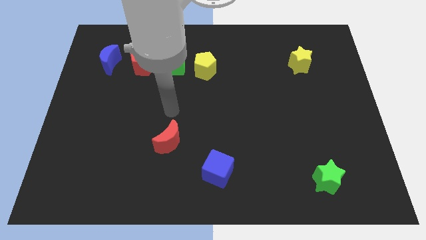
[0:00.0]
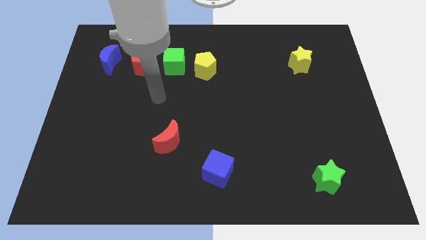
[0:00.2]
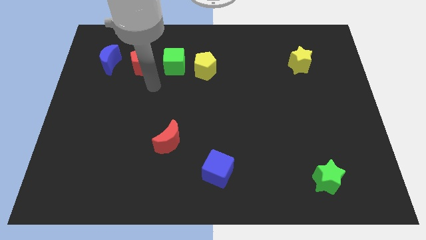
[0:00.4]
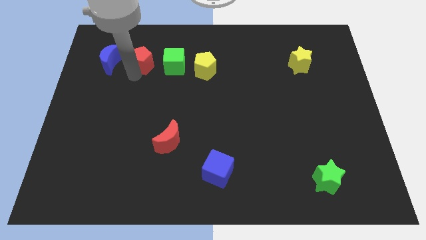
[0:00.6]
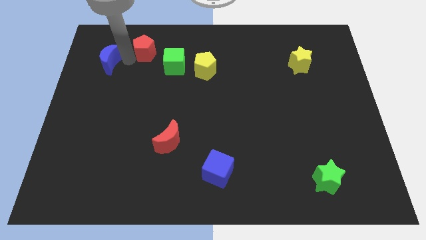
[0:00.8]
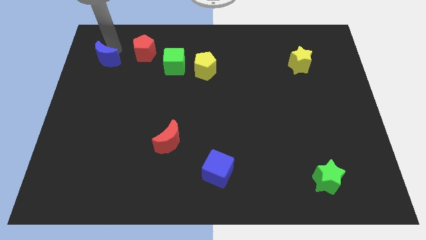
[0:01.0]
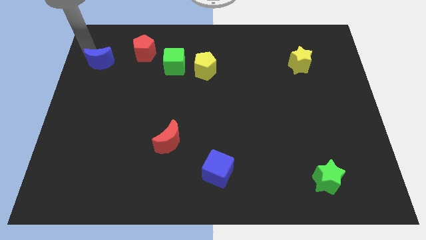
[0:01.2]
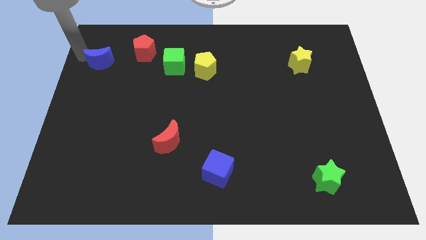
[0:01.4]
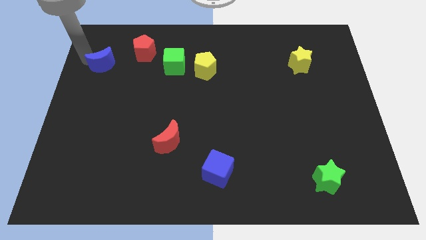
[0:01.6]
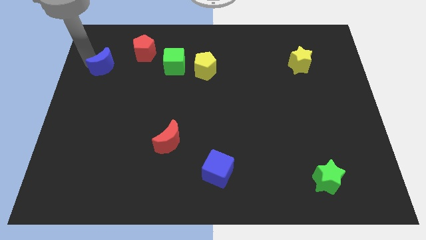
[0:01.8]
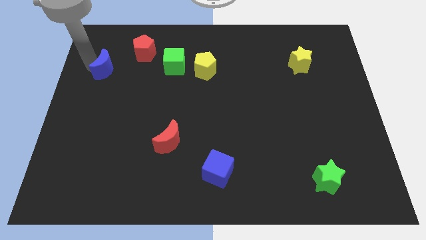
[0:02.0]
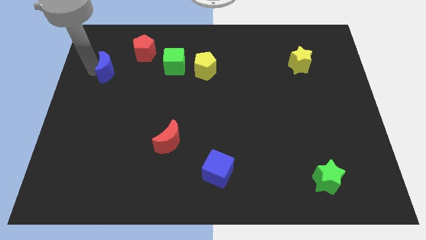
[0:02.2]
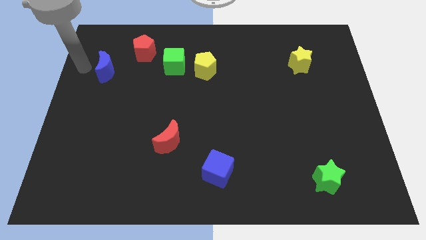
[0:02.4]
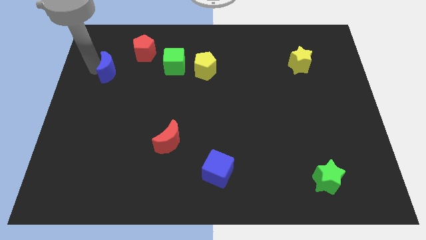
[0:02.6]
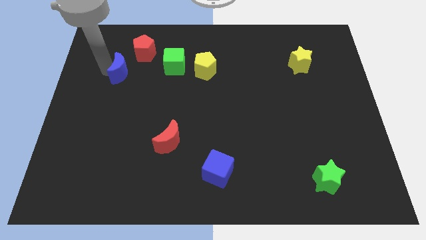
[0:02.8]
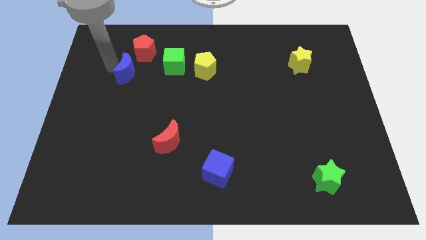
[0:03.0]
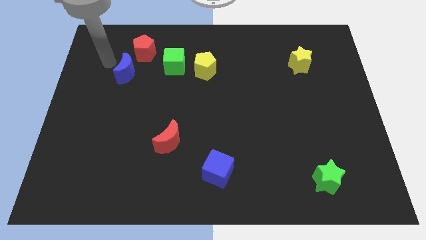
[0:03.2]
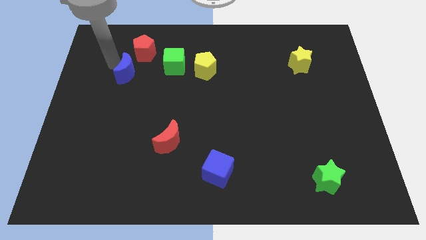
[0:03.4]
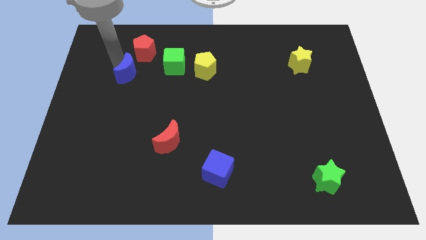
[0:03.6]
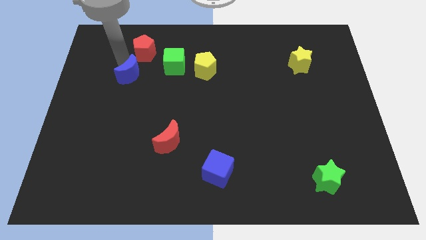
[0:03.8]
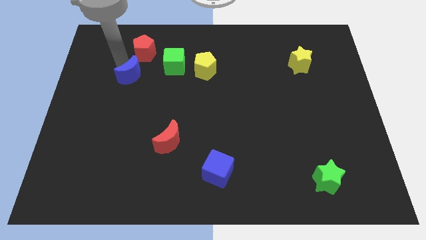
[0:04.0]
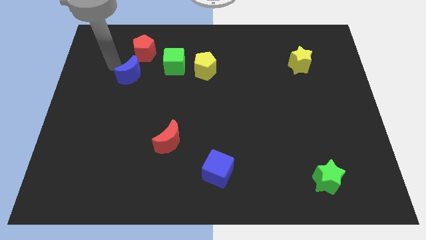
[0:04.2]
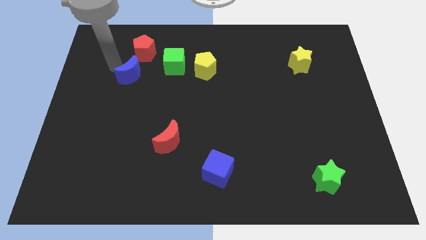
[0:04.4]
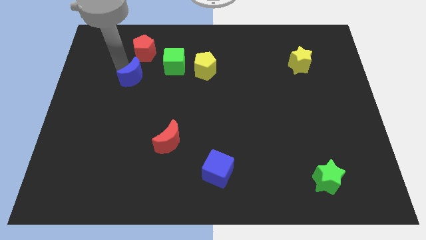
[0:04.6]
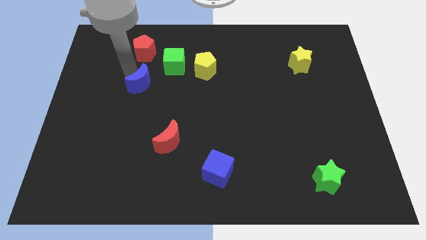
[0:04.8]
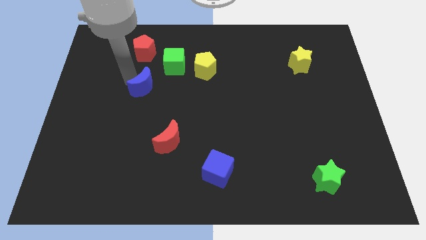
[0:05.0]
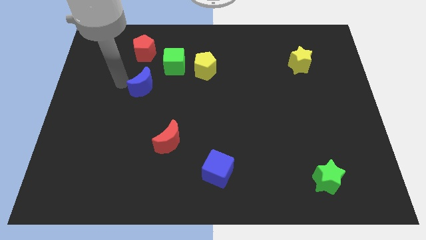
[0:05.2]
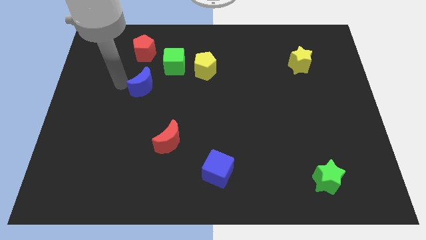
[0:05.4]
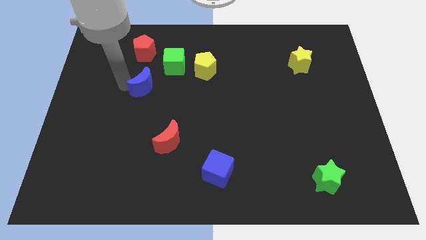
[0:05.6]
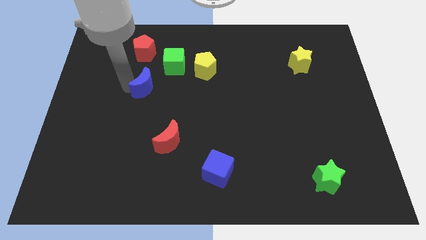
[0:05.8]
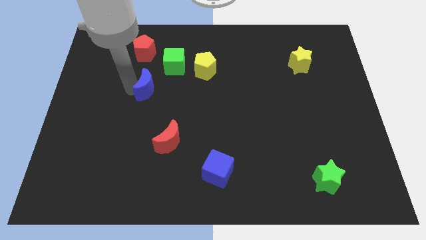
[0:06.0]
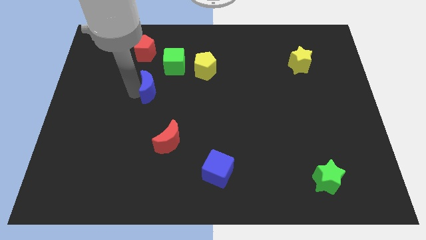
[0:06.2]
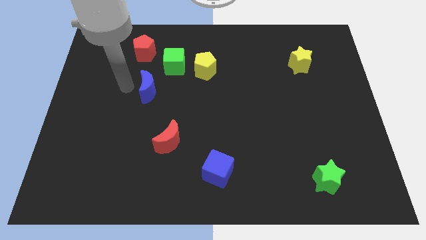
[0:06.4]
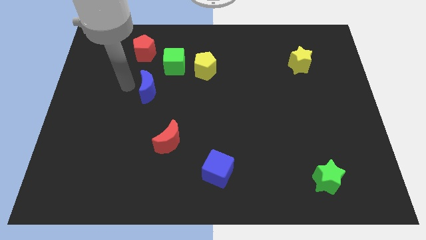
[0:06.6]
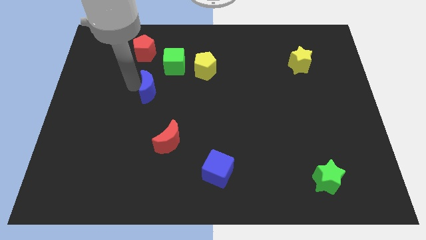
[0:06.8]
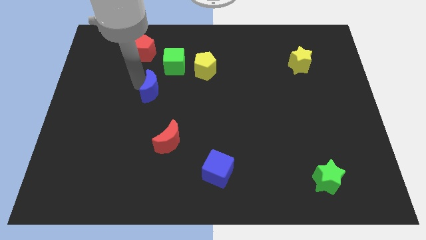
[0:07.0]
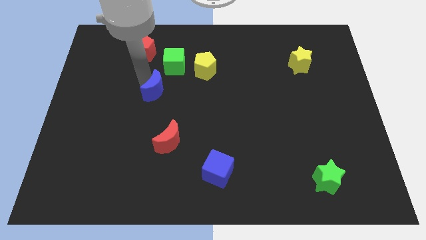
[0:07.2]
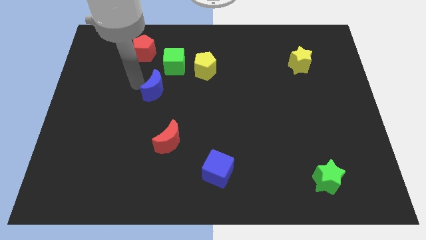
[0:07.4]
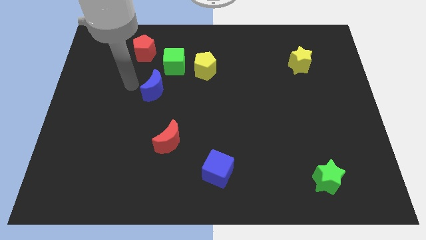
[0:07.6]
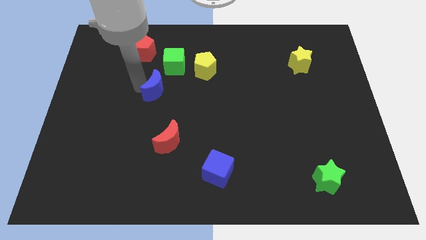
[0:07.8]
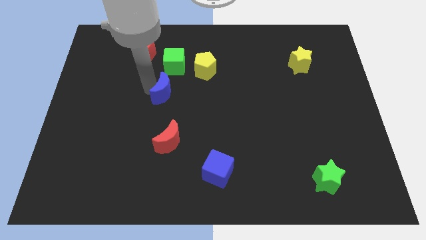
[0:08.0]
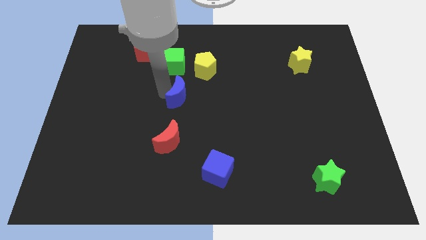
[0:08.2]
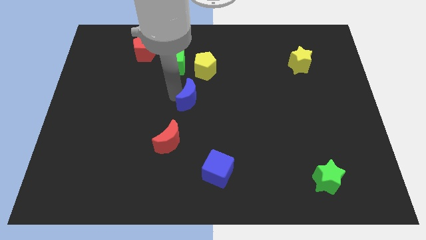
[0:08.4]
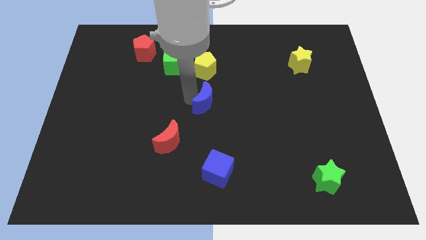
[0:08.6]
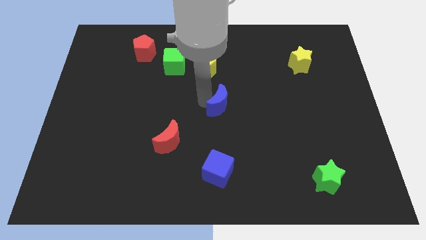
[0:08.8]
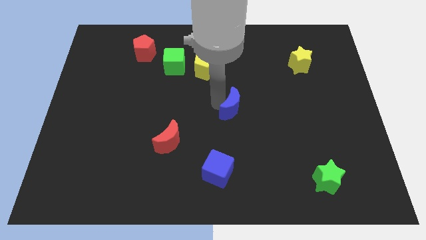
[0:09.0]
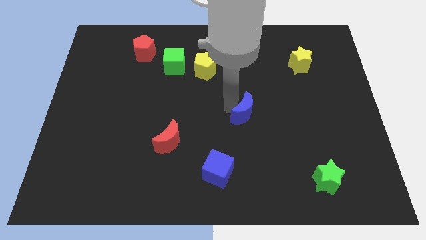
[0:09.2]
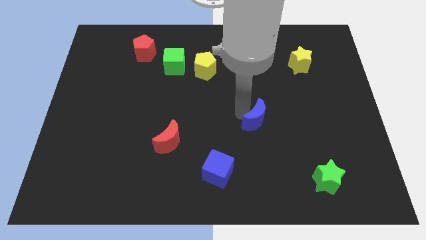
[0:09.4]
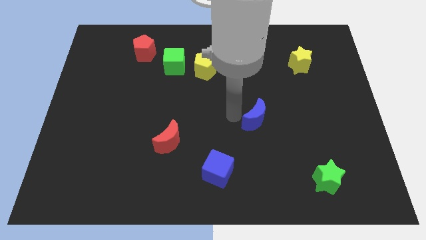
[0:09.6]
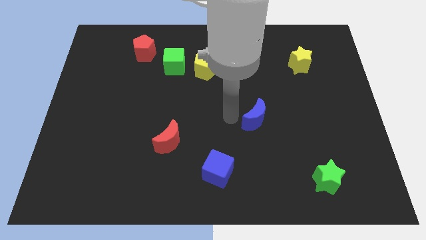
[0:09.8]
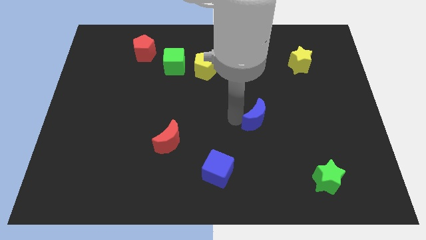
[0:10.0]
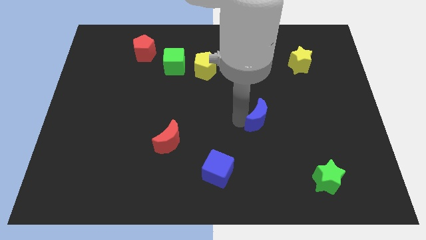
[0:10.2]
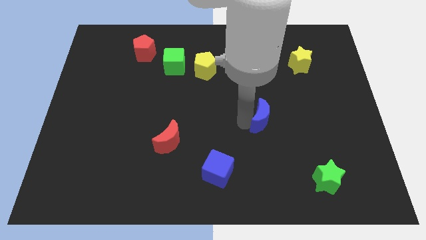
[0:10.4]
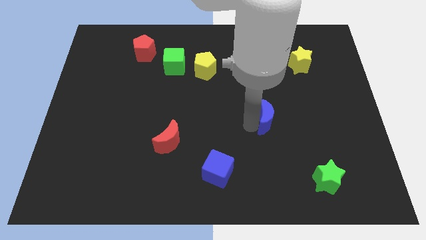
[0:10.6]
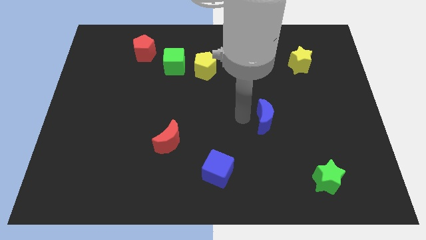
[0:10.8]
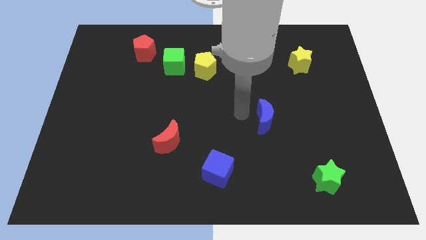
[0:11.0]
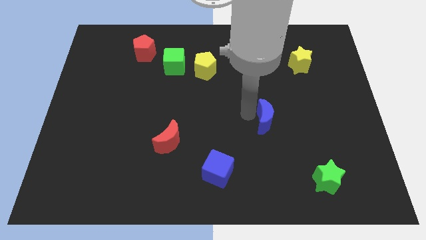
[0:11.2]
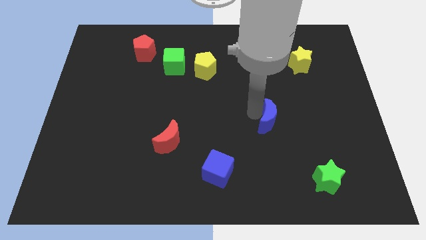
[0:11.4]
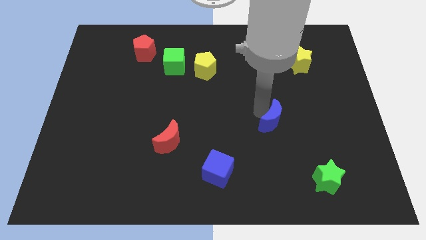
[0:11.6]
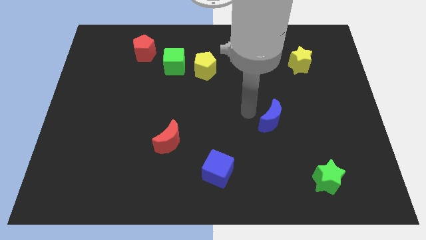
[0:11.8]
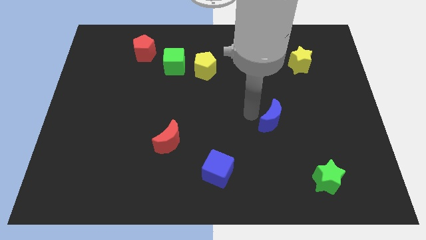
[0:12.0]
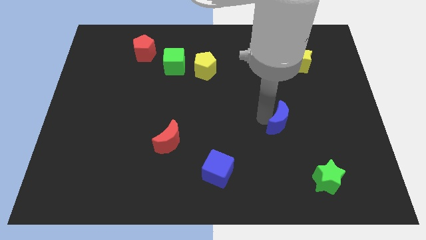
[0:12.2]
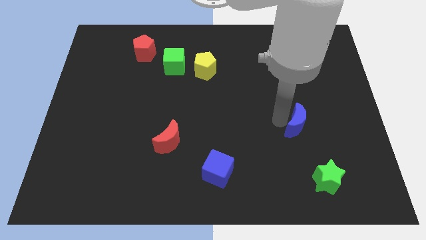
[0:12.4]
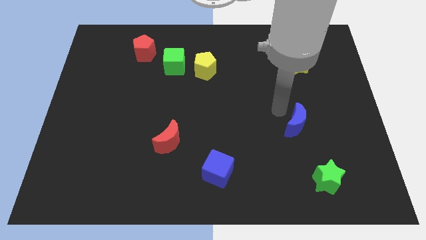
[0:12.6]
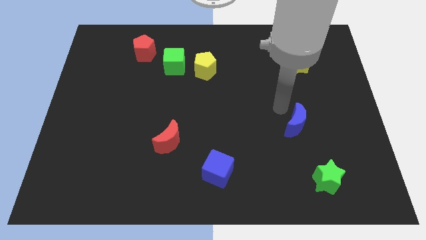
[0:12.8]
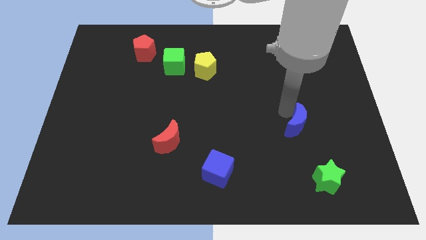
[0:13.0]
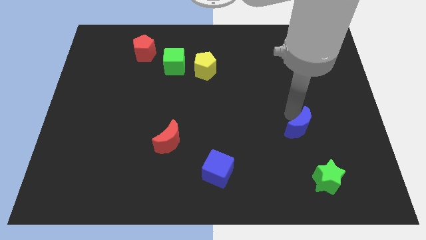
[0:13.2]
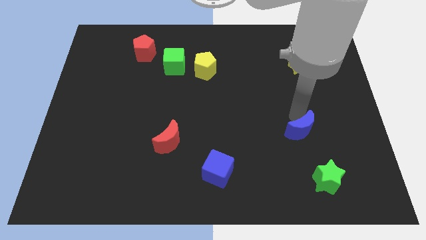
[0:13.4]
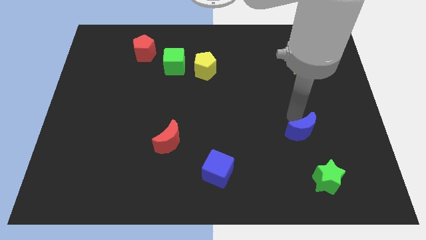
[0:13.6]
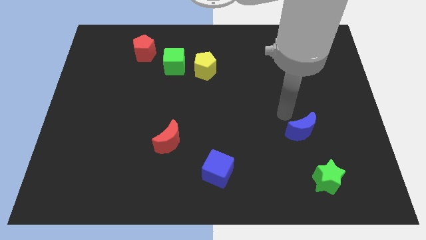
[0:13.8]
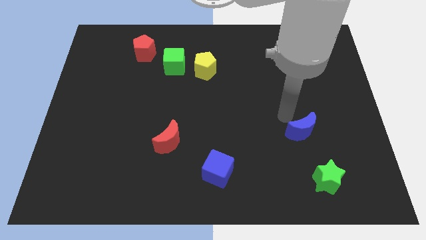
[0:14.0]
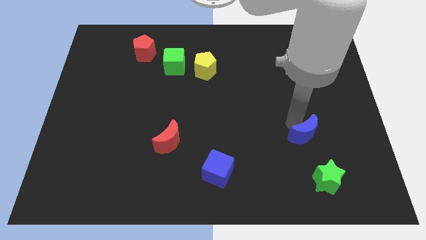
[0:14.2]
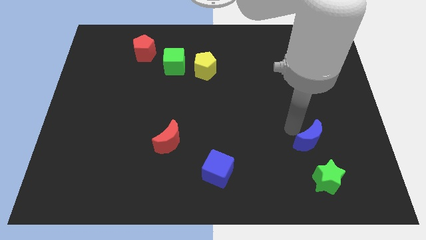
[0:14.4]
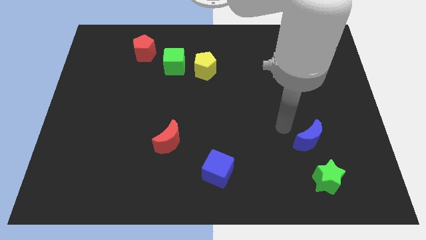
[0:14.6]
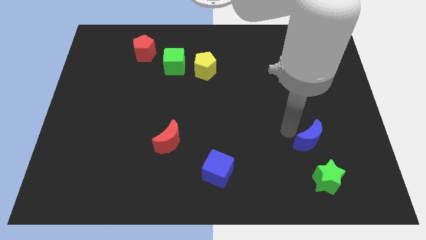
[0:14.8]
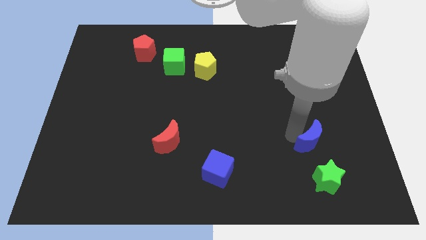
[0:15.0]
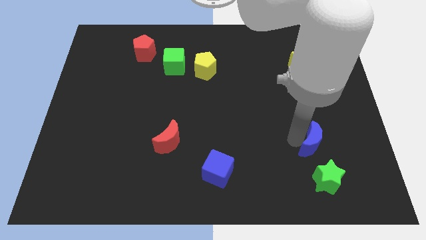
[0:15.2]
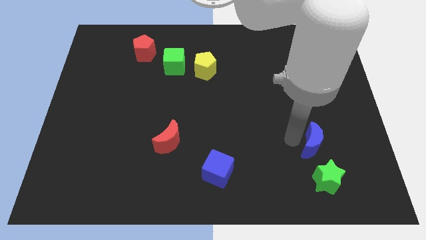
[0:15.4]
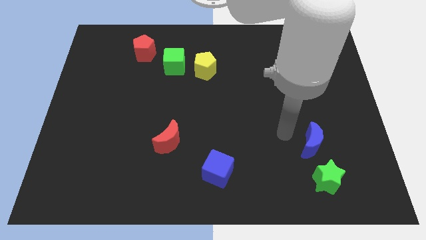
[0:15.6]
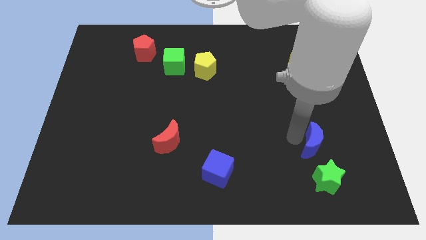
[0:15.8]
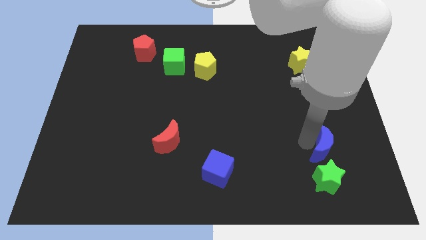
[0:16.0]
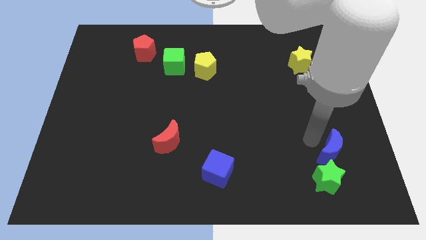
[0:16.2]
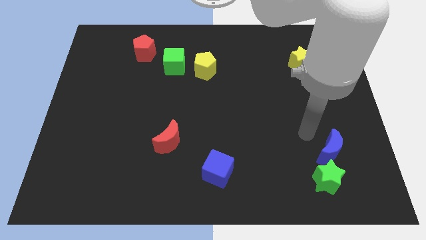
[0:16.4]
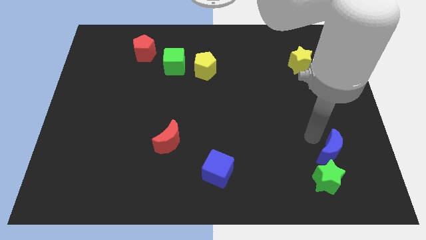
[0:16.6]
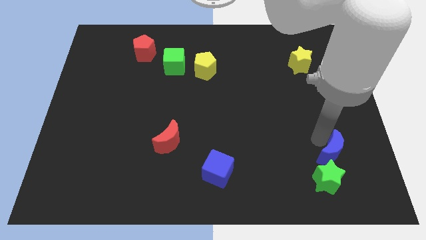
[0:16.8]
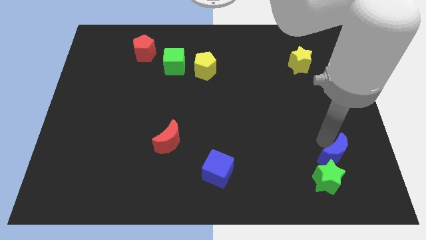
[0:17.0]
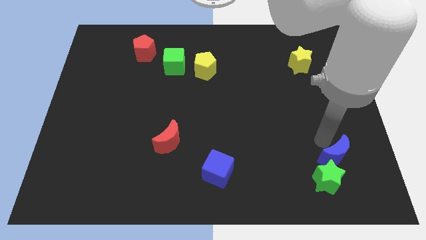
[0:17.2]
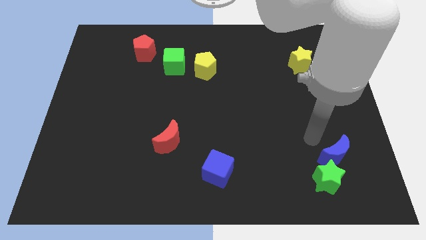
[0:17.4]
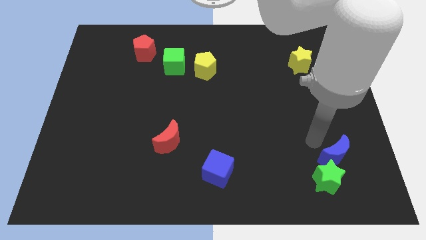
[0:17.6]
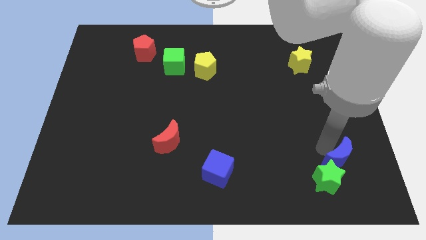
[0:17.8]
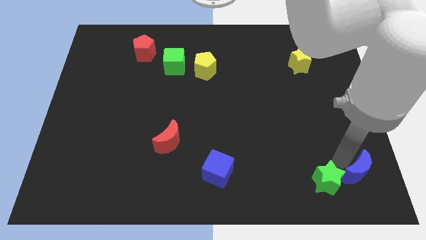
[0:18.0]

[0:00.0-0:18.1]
put the blue moon to the bottom right
